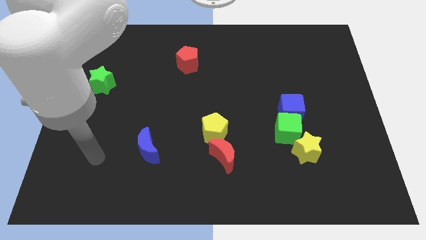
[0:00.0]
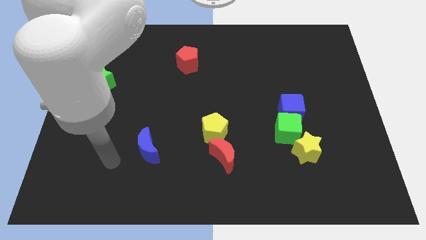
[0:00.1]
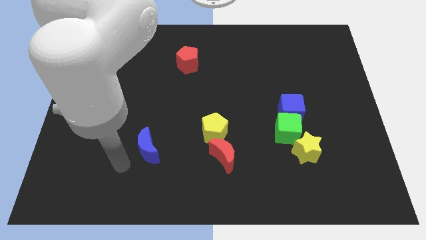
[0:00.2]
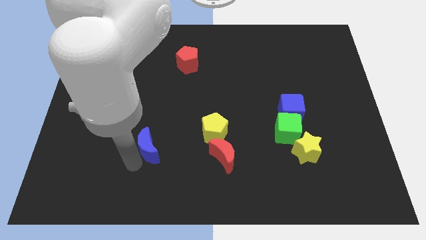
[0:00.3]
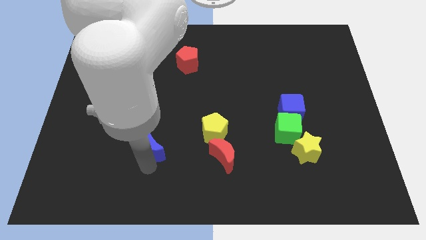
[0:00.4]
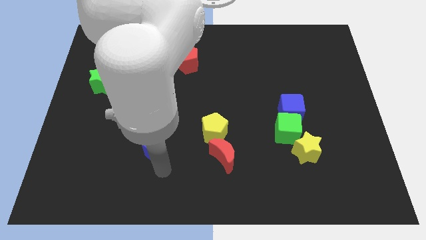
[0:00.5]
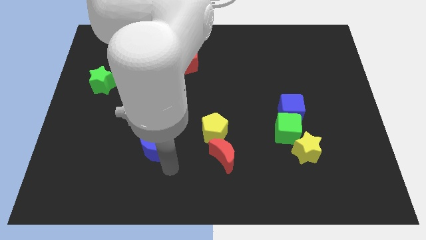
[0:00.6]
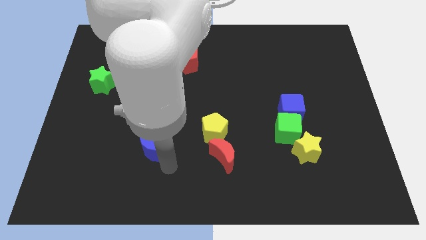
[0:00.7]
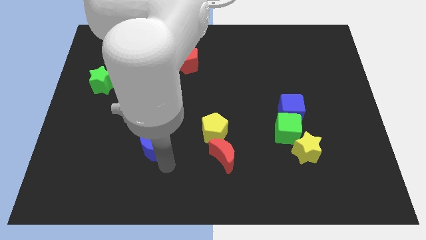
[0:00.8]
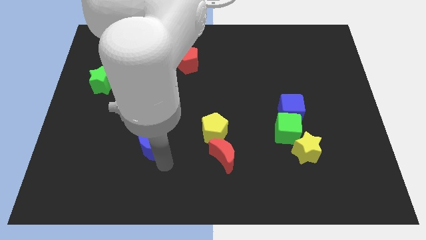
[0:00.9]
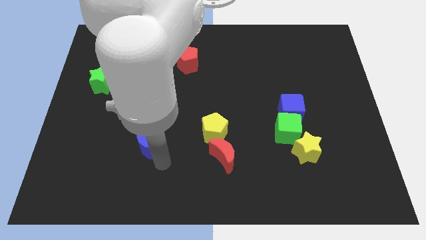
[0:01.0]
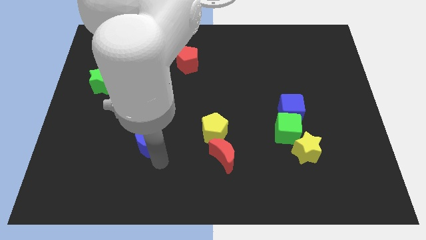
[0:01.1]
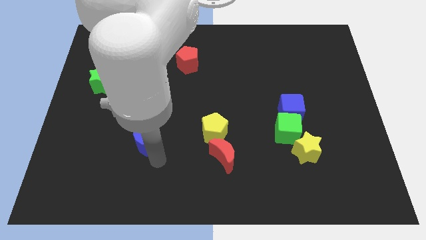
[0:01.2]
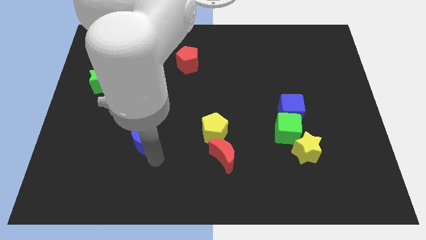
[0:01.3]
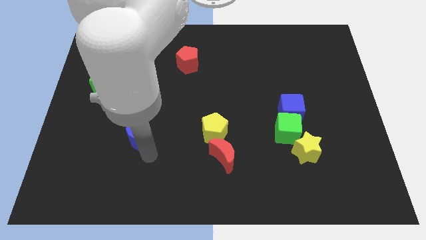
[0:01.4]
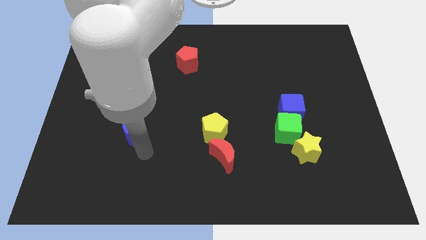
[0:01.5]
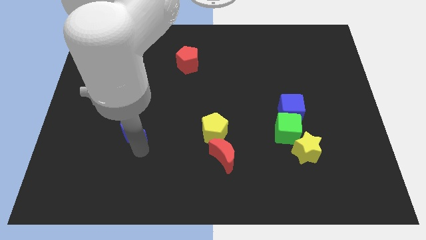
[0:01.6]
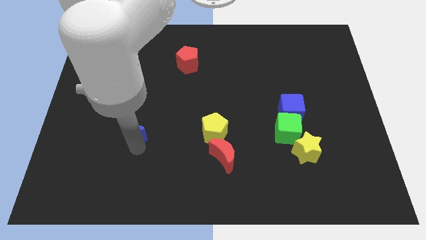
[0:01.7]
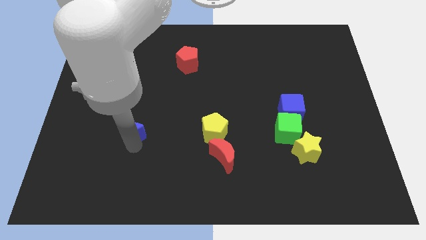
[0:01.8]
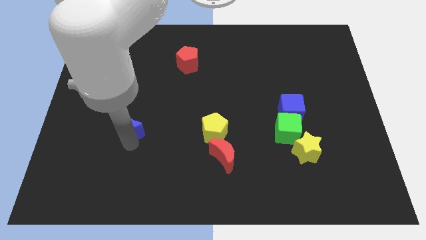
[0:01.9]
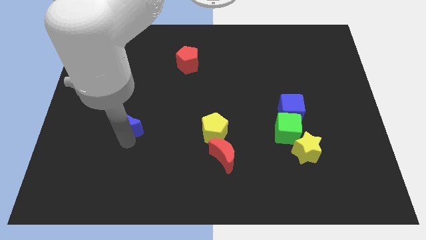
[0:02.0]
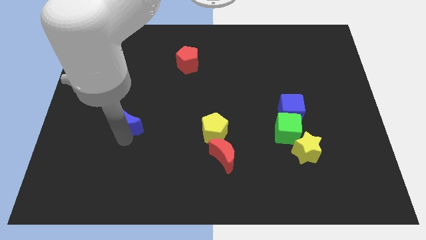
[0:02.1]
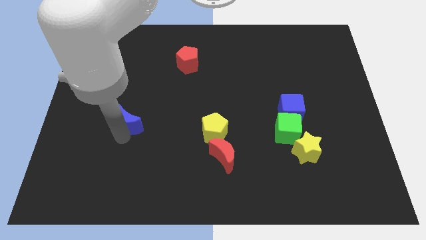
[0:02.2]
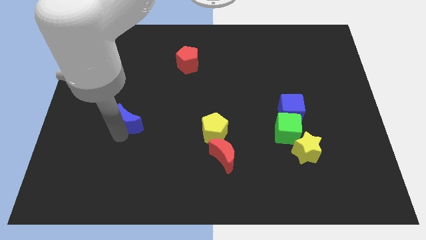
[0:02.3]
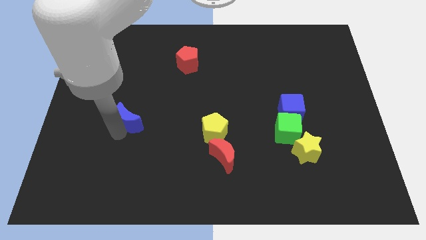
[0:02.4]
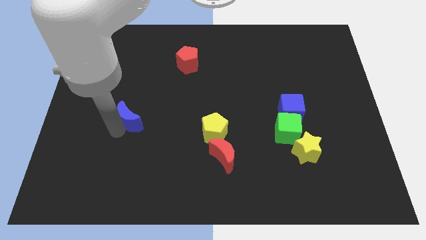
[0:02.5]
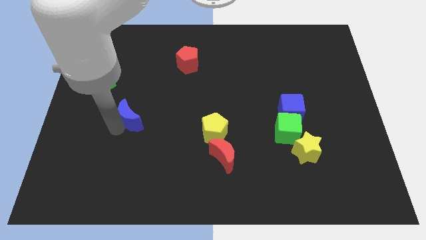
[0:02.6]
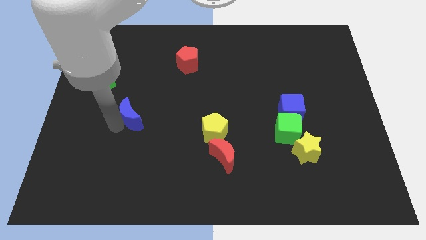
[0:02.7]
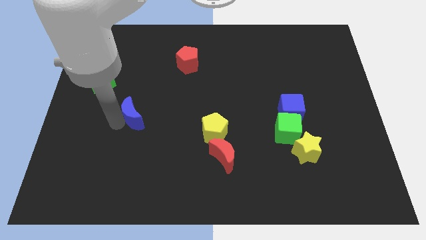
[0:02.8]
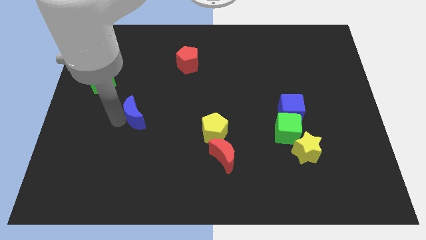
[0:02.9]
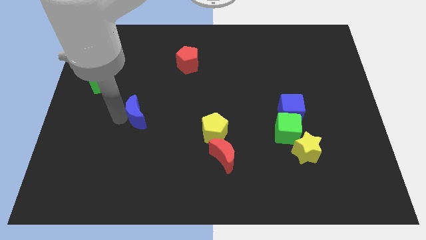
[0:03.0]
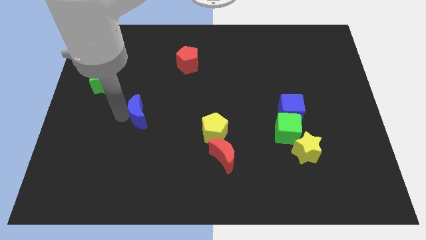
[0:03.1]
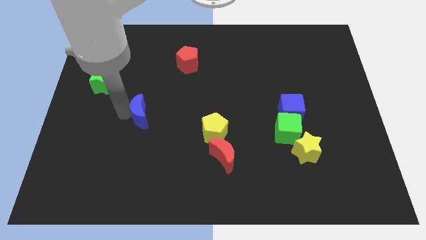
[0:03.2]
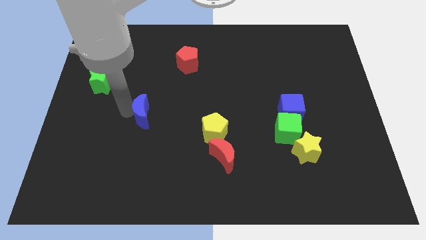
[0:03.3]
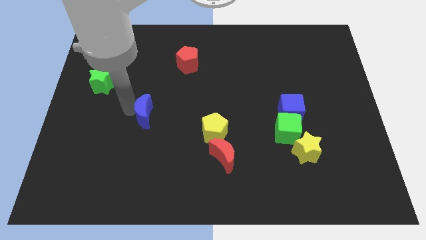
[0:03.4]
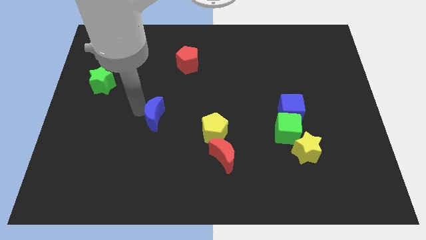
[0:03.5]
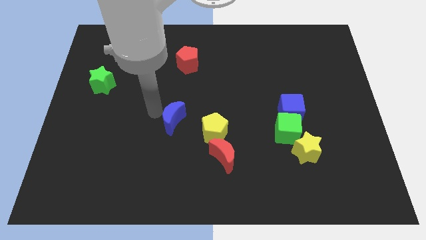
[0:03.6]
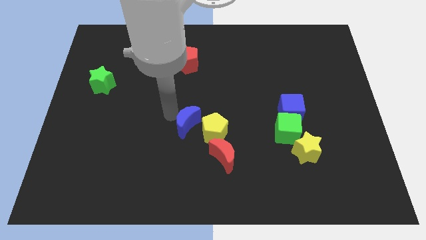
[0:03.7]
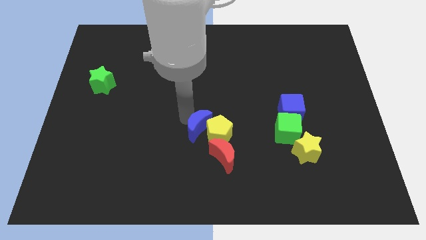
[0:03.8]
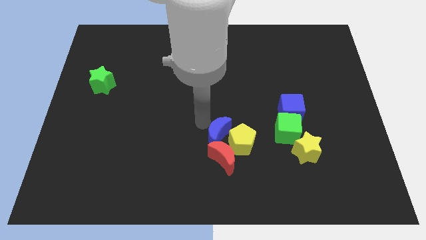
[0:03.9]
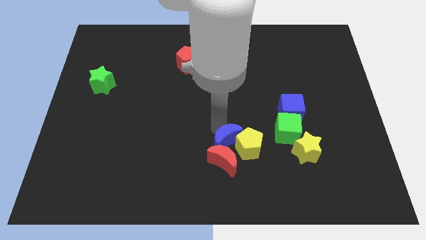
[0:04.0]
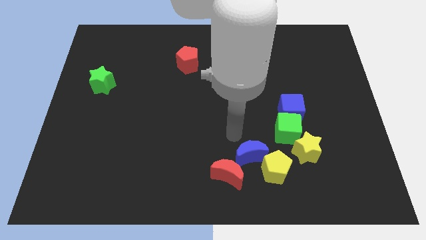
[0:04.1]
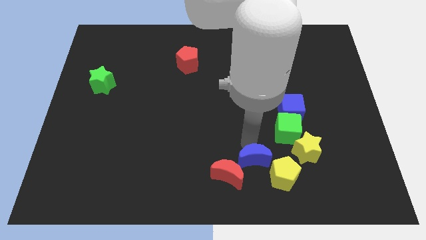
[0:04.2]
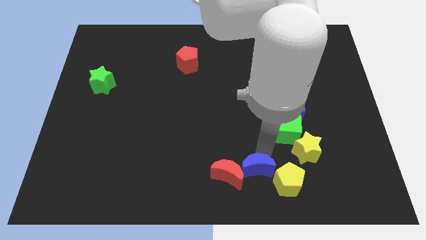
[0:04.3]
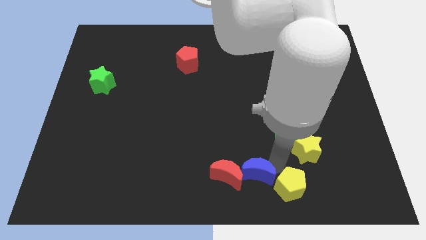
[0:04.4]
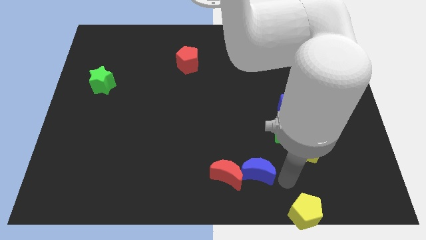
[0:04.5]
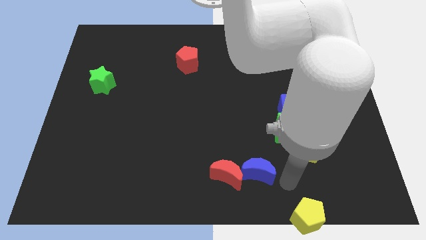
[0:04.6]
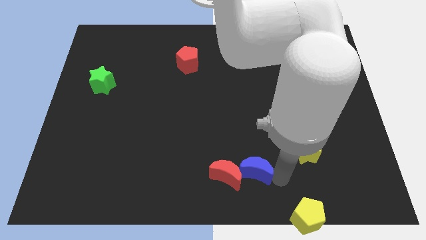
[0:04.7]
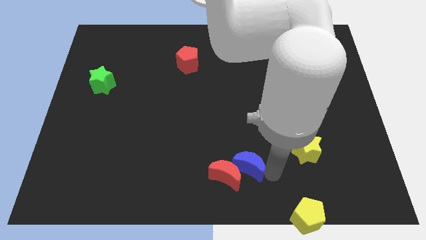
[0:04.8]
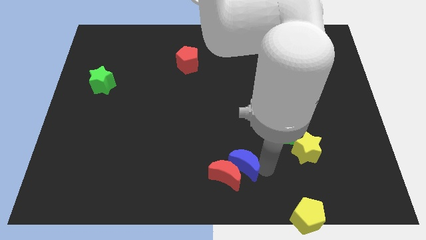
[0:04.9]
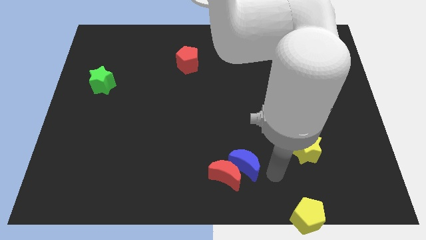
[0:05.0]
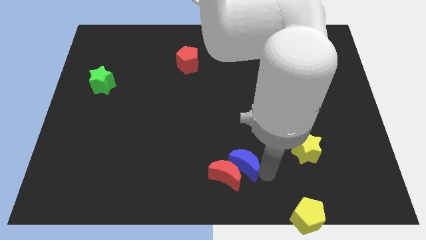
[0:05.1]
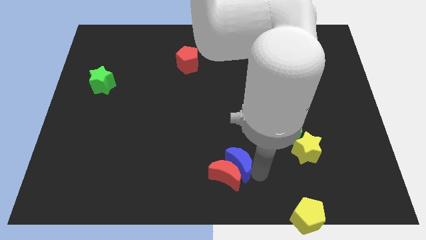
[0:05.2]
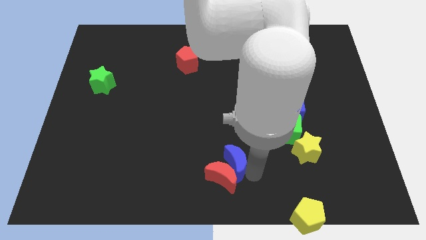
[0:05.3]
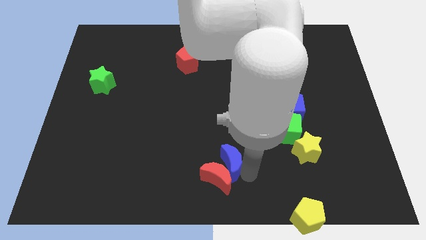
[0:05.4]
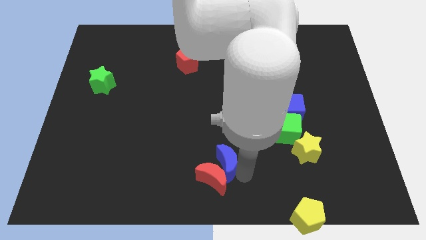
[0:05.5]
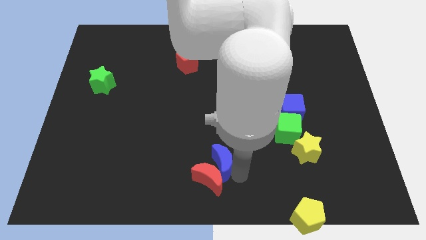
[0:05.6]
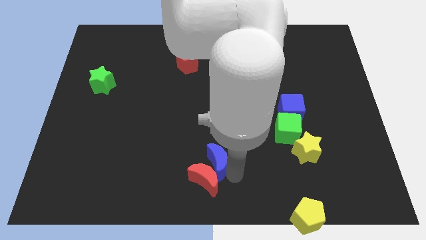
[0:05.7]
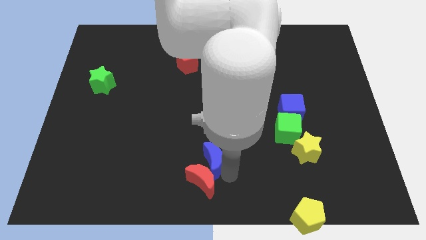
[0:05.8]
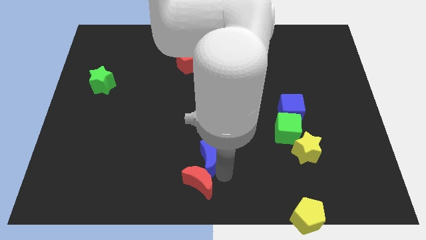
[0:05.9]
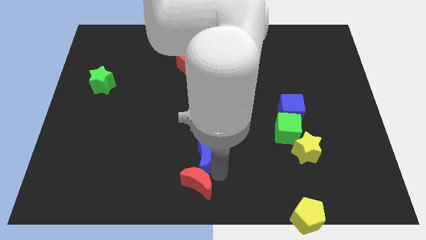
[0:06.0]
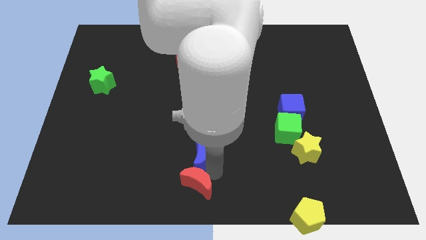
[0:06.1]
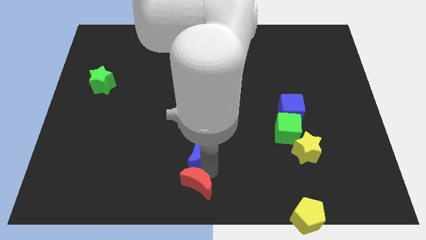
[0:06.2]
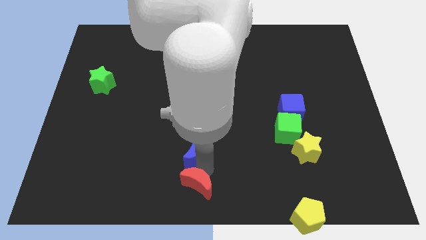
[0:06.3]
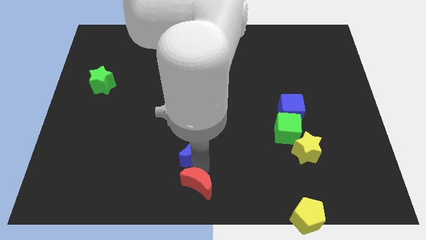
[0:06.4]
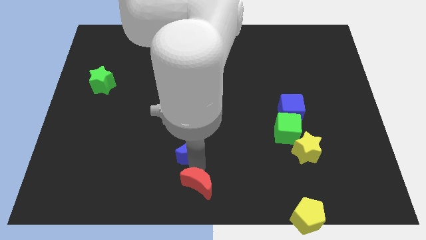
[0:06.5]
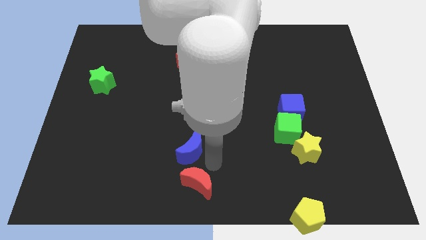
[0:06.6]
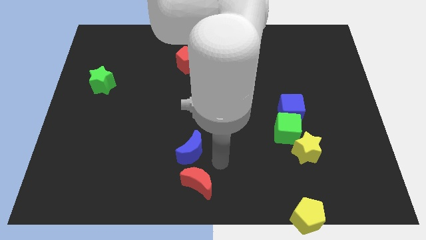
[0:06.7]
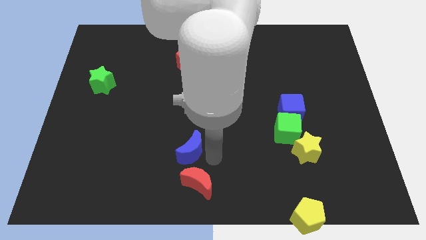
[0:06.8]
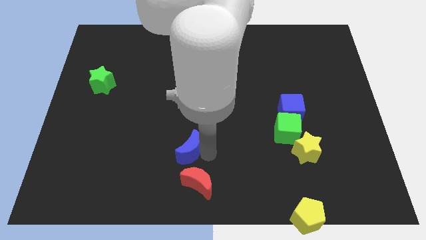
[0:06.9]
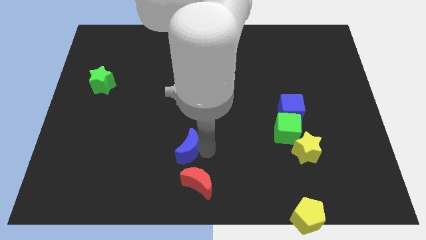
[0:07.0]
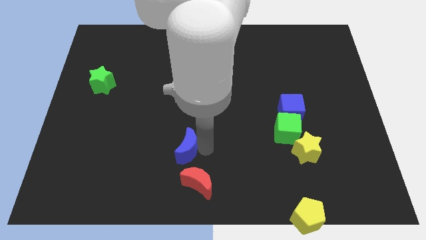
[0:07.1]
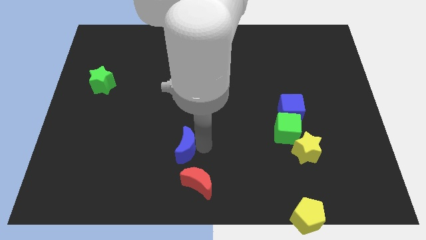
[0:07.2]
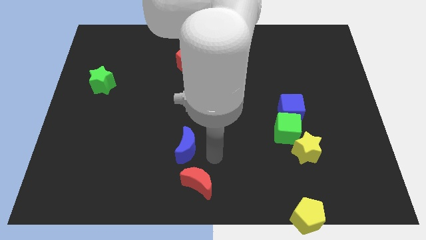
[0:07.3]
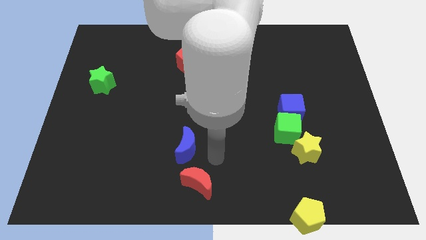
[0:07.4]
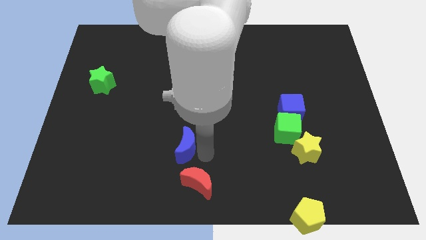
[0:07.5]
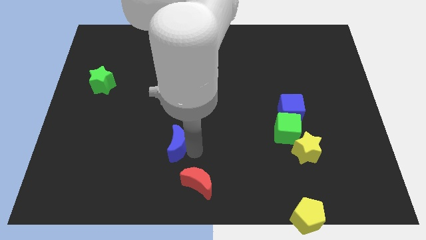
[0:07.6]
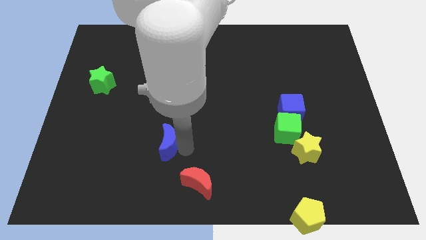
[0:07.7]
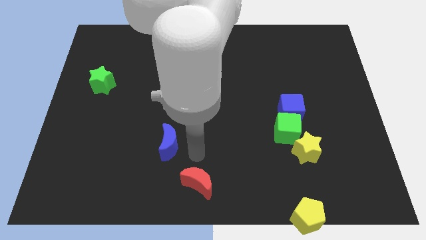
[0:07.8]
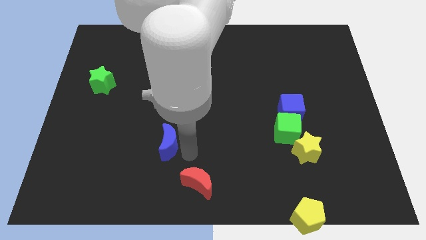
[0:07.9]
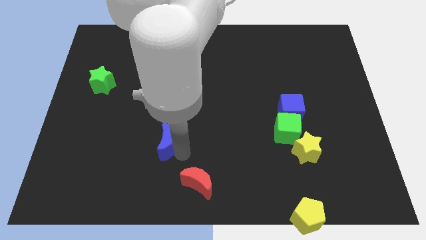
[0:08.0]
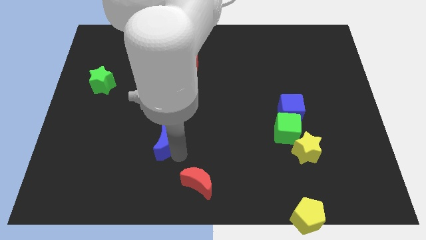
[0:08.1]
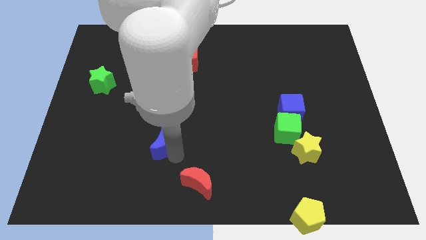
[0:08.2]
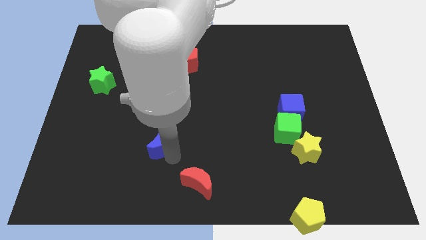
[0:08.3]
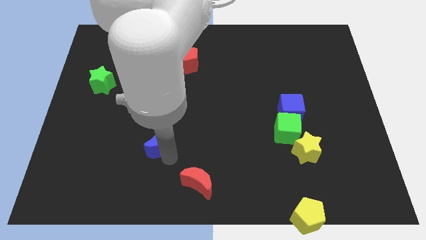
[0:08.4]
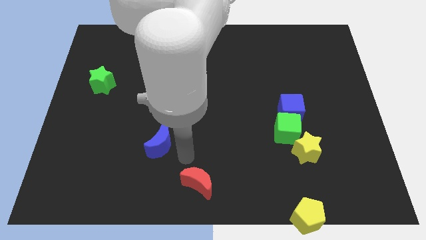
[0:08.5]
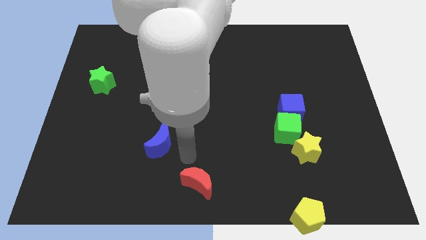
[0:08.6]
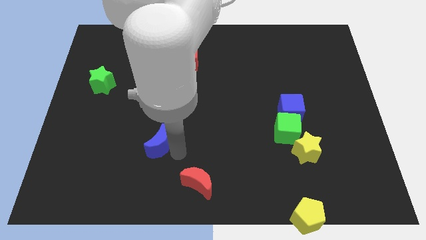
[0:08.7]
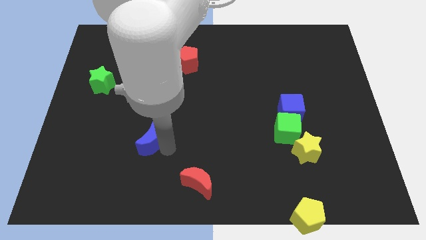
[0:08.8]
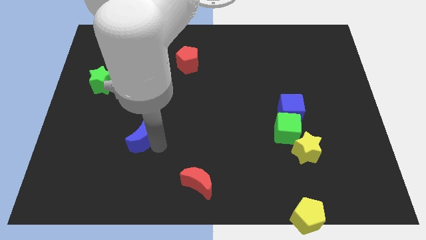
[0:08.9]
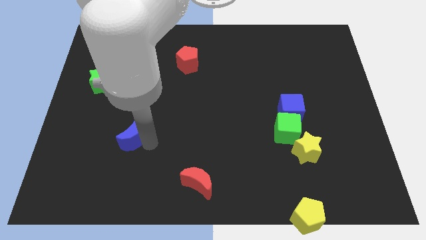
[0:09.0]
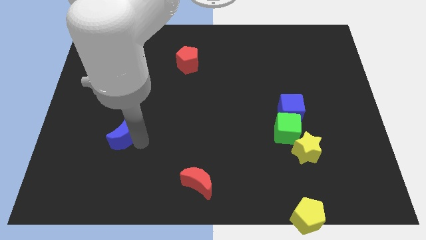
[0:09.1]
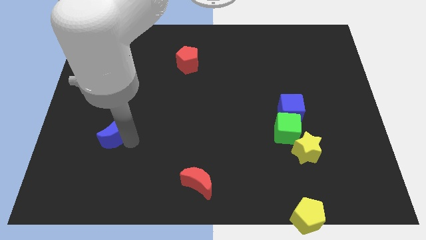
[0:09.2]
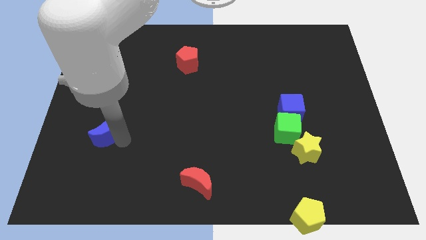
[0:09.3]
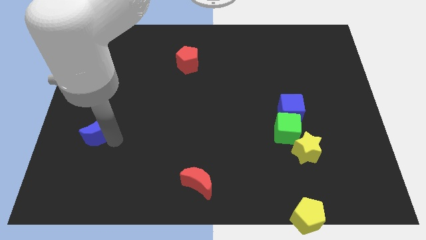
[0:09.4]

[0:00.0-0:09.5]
push the blue moon below the green star
